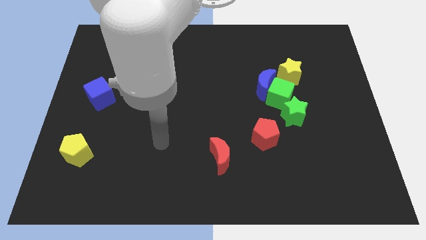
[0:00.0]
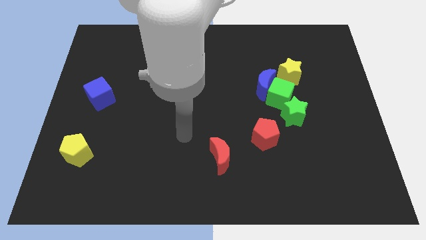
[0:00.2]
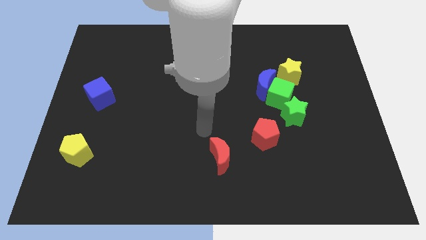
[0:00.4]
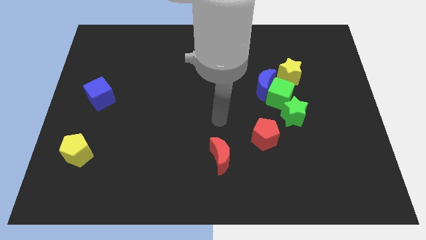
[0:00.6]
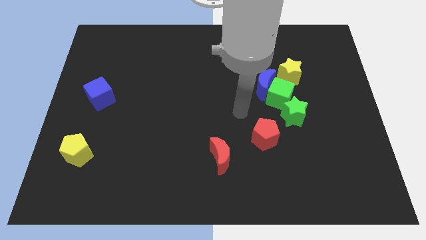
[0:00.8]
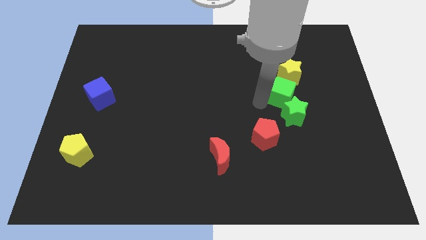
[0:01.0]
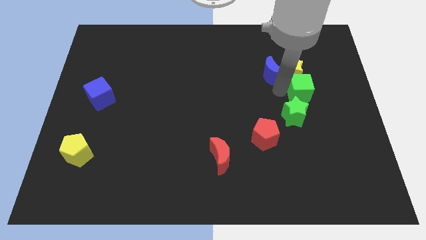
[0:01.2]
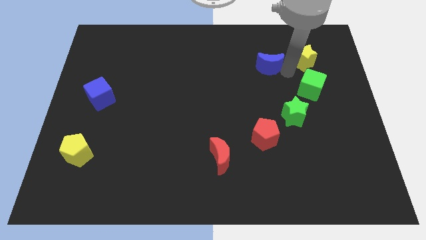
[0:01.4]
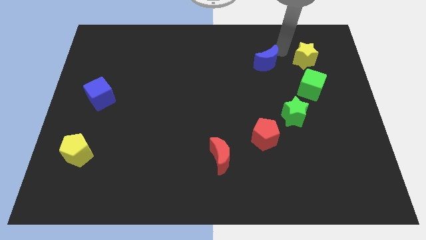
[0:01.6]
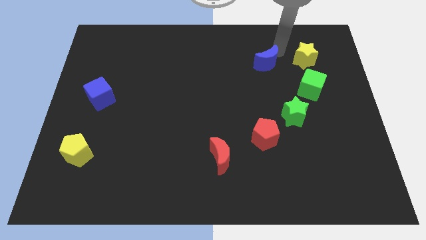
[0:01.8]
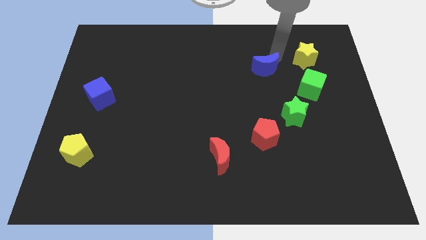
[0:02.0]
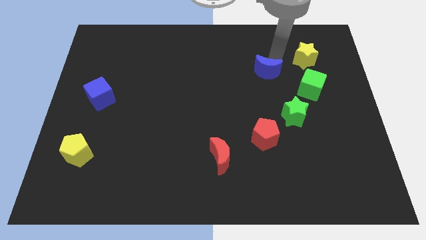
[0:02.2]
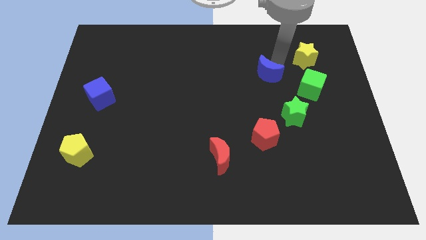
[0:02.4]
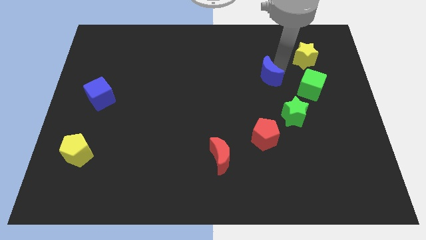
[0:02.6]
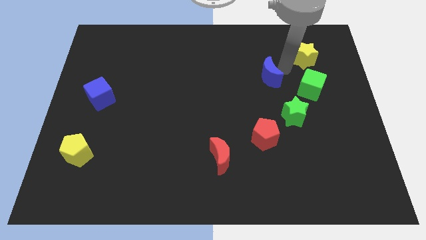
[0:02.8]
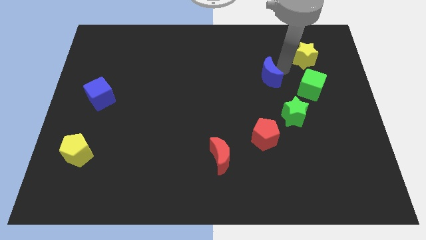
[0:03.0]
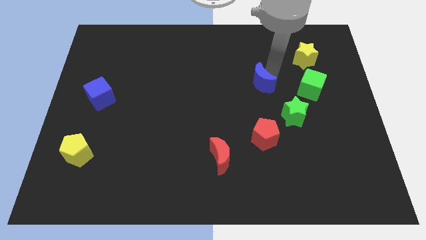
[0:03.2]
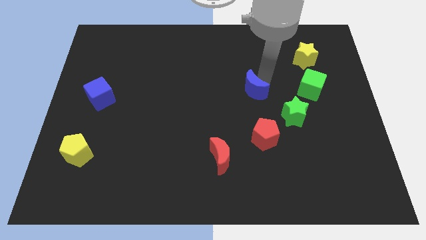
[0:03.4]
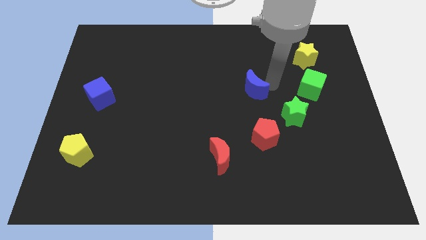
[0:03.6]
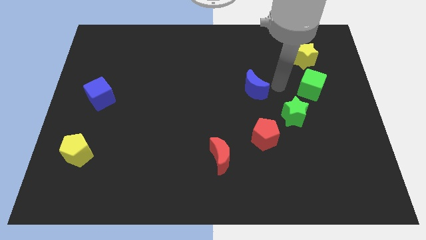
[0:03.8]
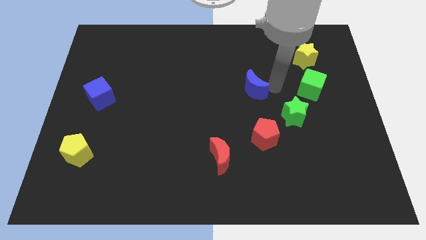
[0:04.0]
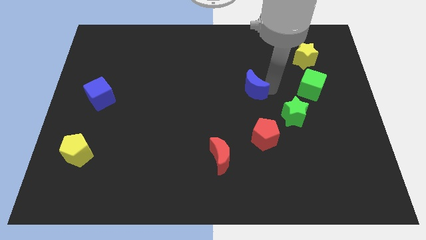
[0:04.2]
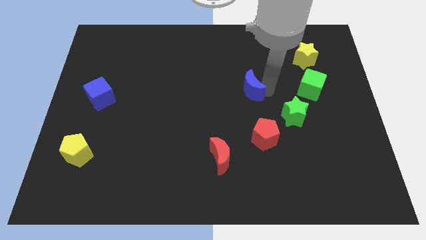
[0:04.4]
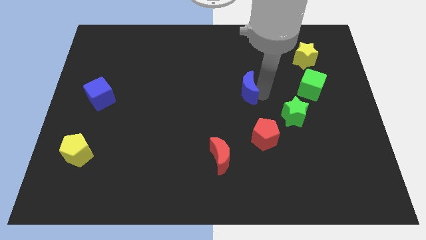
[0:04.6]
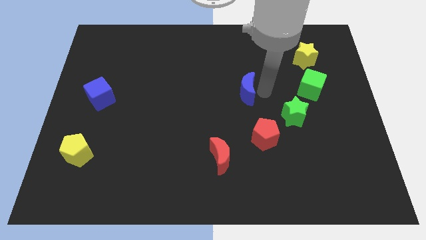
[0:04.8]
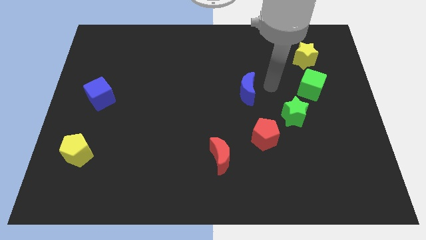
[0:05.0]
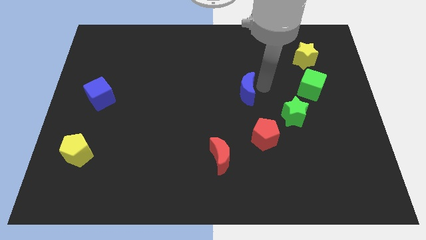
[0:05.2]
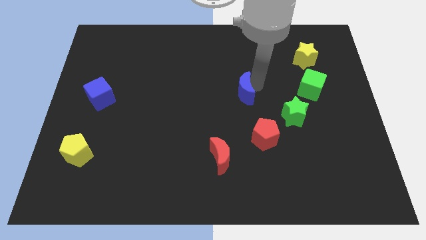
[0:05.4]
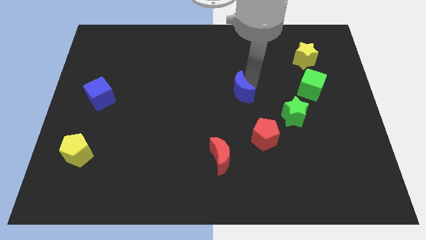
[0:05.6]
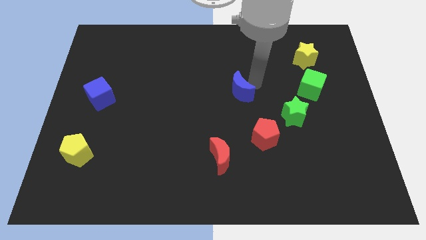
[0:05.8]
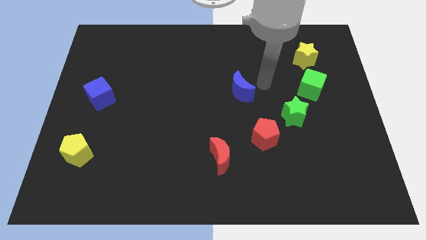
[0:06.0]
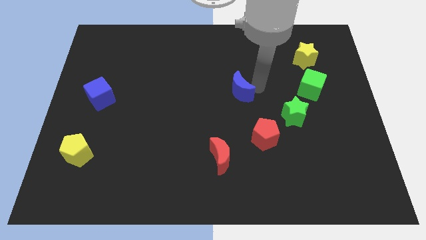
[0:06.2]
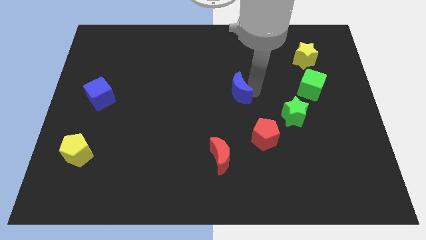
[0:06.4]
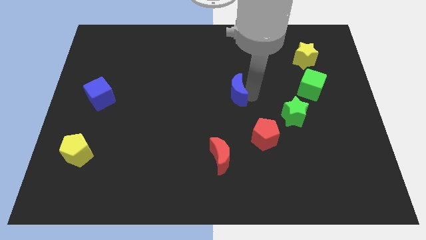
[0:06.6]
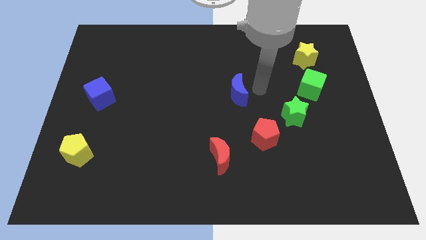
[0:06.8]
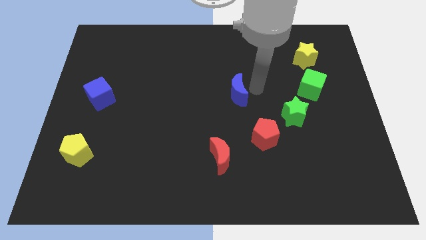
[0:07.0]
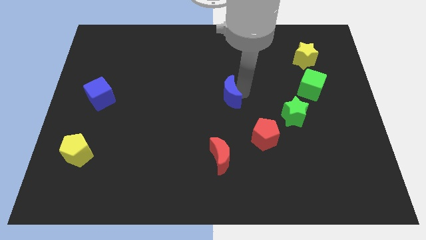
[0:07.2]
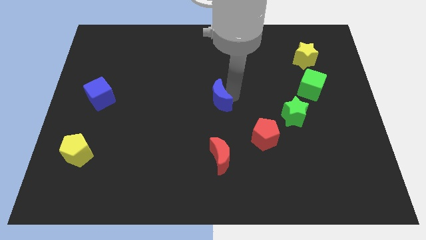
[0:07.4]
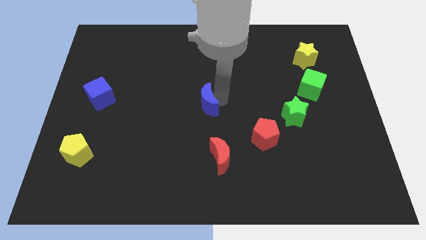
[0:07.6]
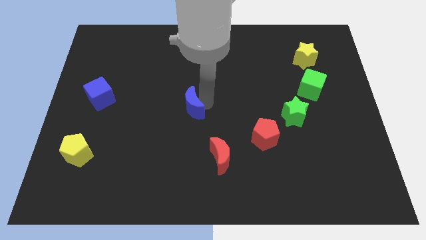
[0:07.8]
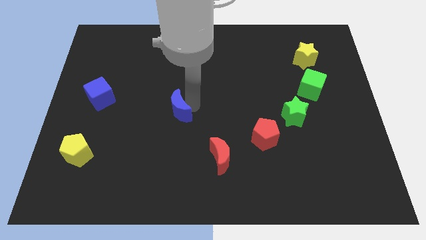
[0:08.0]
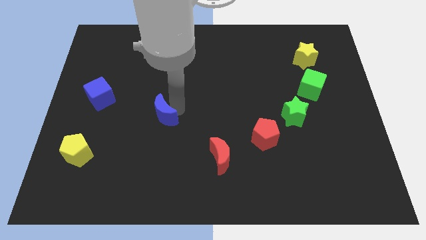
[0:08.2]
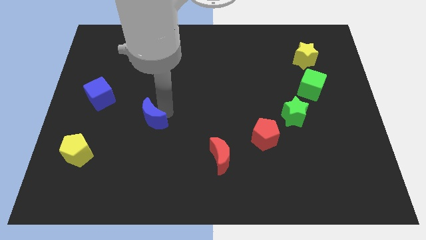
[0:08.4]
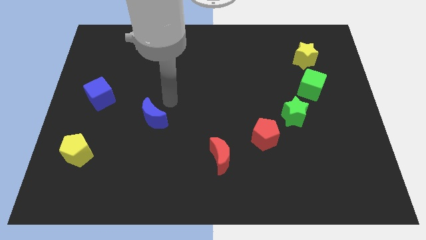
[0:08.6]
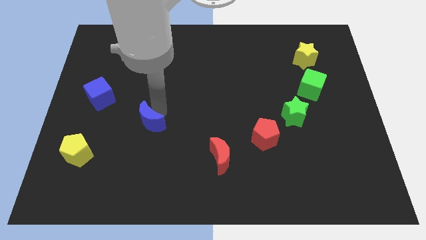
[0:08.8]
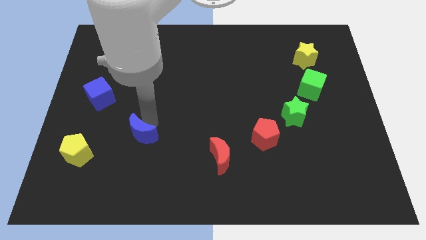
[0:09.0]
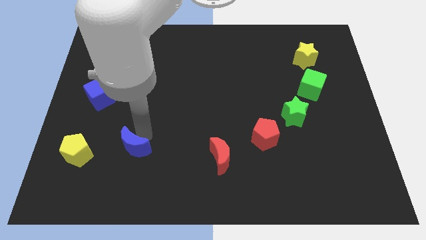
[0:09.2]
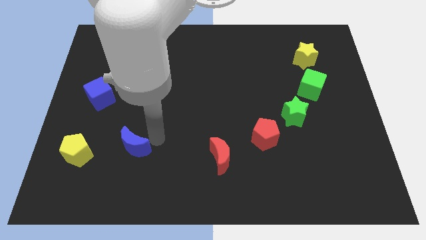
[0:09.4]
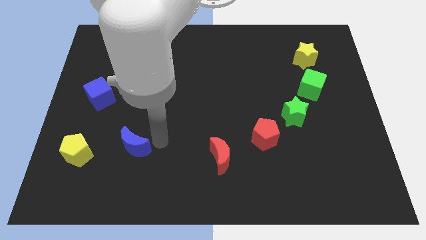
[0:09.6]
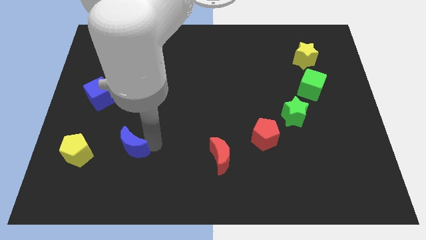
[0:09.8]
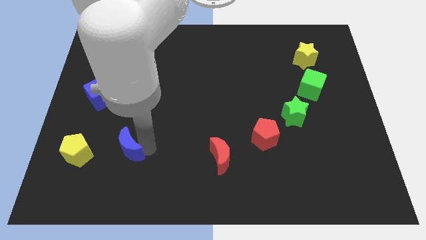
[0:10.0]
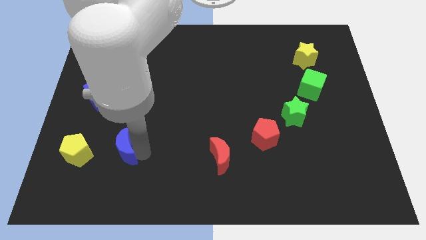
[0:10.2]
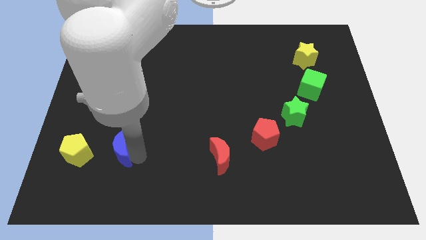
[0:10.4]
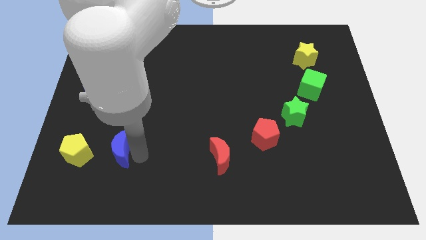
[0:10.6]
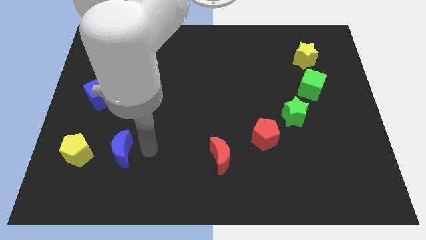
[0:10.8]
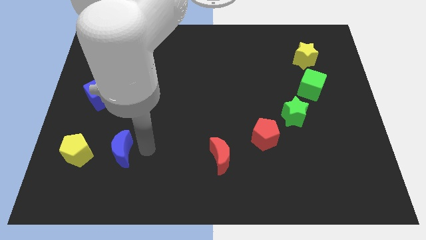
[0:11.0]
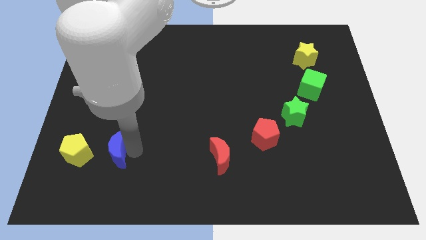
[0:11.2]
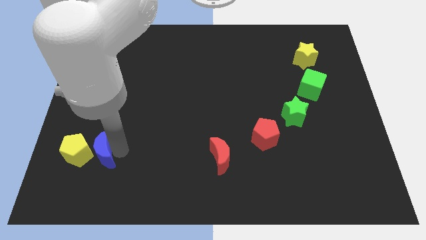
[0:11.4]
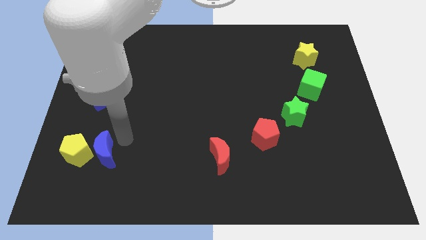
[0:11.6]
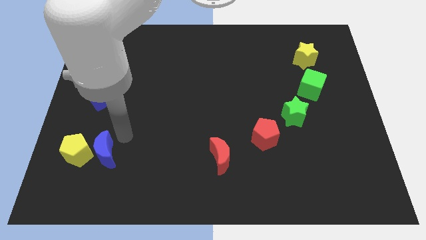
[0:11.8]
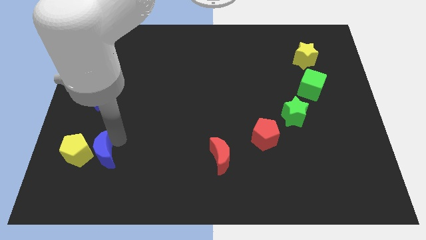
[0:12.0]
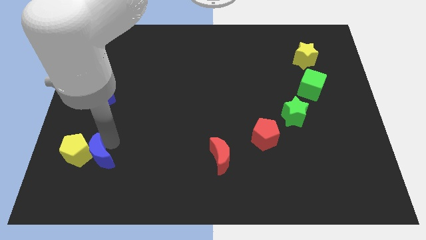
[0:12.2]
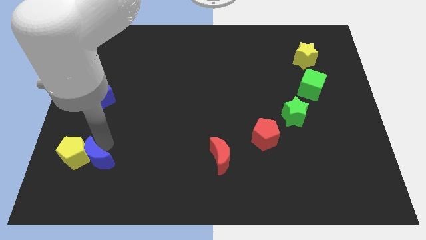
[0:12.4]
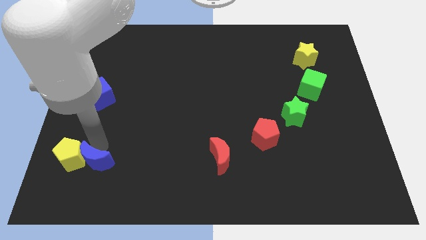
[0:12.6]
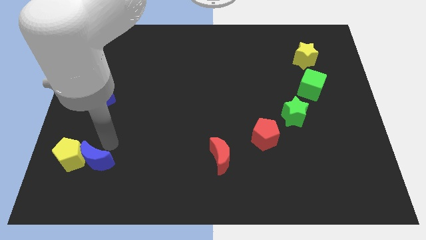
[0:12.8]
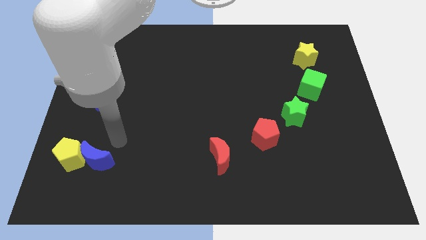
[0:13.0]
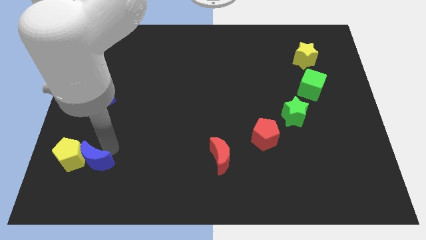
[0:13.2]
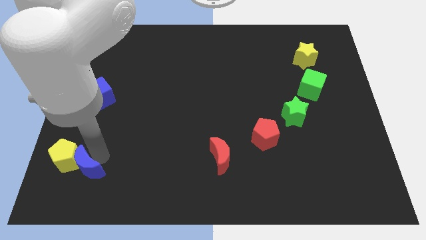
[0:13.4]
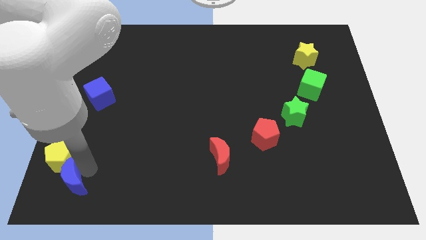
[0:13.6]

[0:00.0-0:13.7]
move the blue moon to the bottom left of the board
